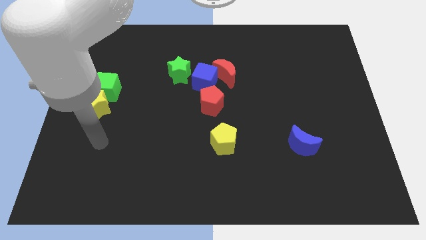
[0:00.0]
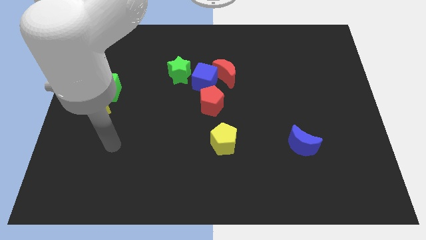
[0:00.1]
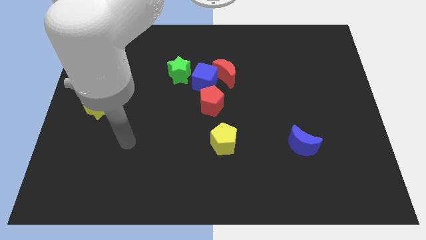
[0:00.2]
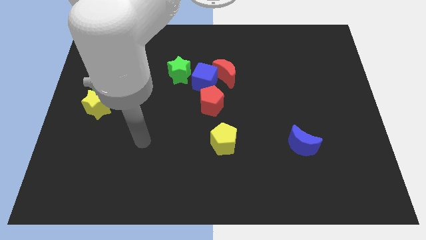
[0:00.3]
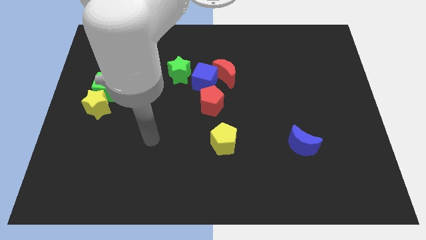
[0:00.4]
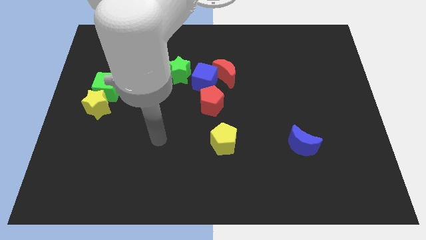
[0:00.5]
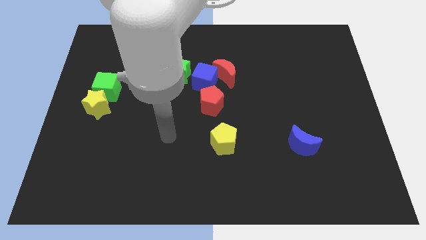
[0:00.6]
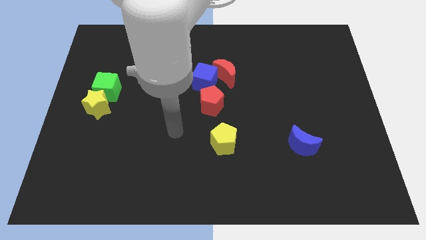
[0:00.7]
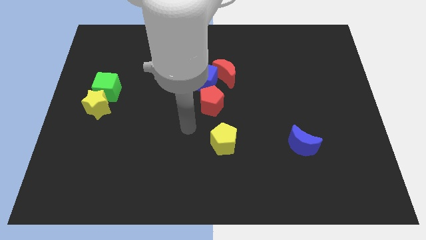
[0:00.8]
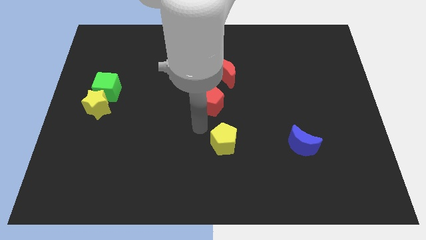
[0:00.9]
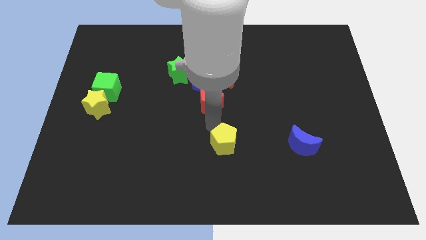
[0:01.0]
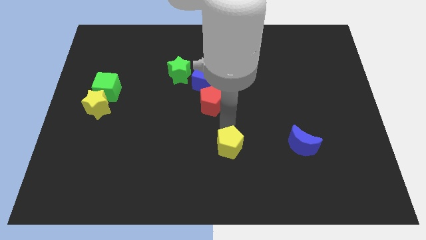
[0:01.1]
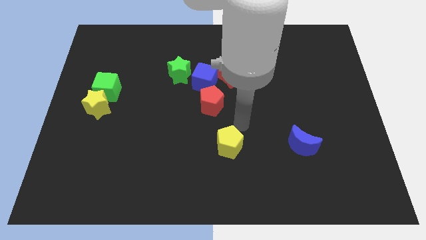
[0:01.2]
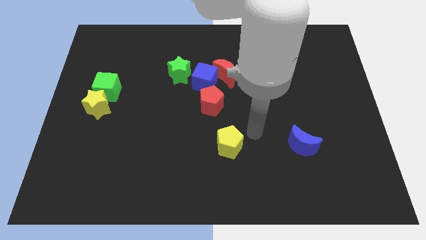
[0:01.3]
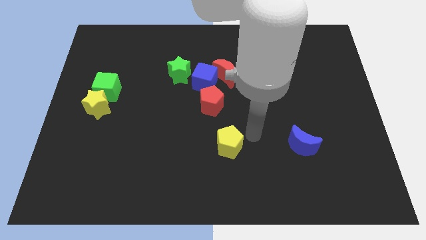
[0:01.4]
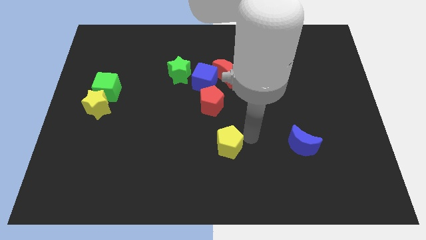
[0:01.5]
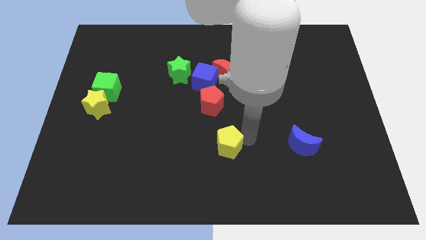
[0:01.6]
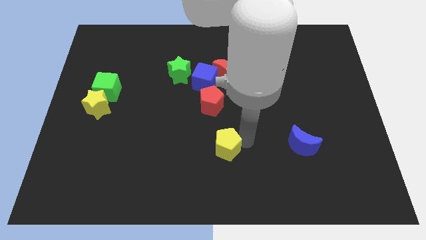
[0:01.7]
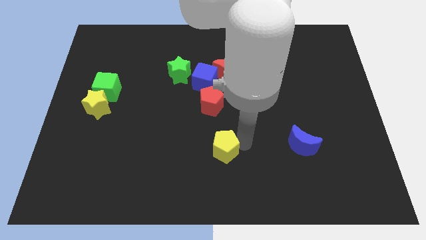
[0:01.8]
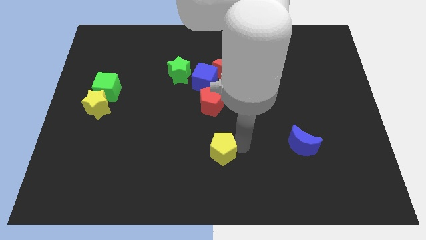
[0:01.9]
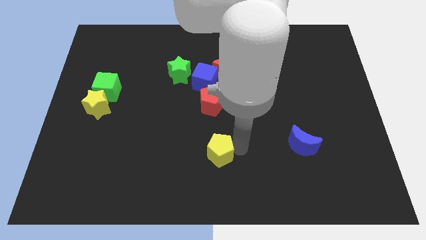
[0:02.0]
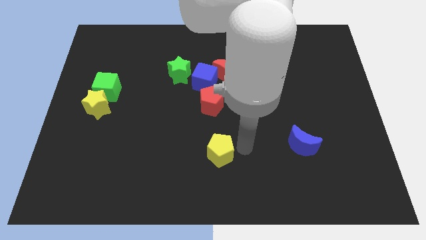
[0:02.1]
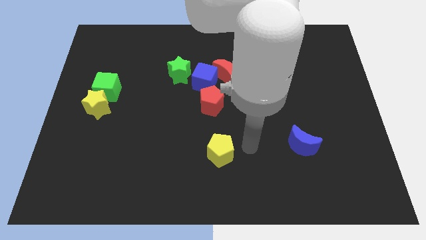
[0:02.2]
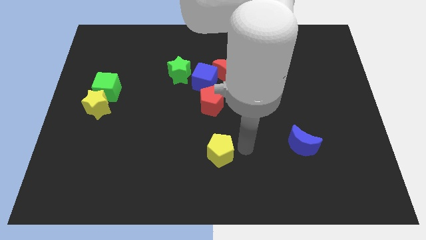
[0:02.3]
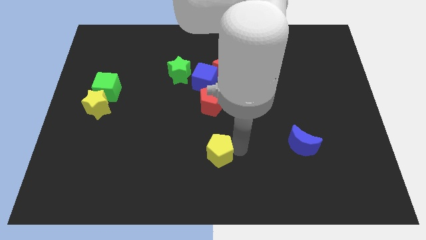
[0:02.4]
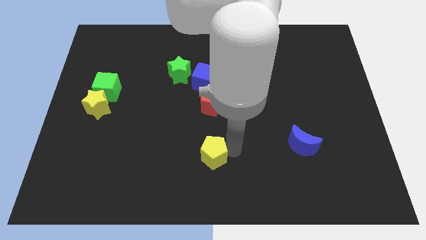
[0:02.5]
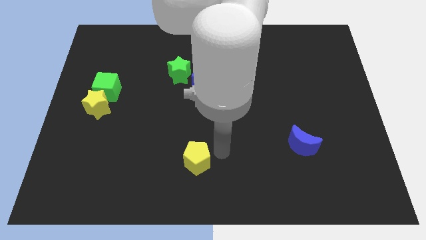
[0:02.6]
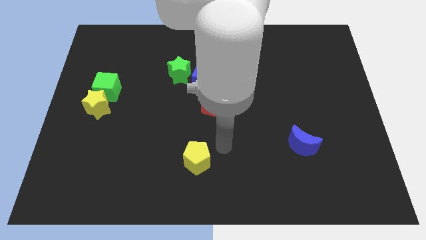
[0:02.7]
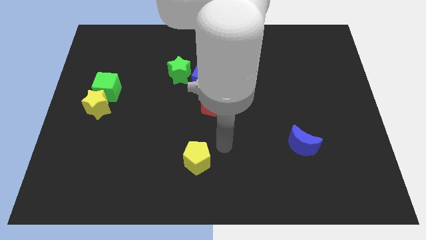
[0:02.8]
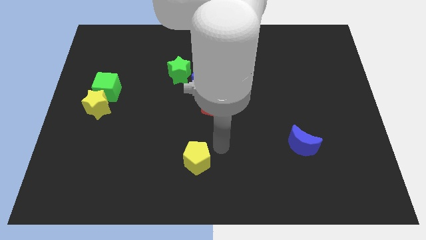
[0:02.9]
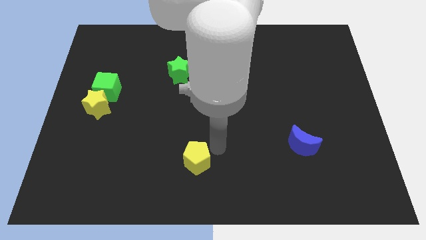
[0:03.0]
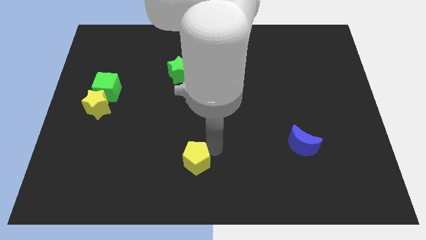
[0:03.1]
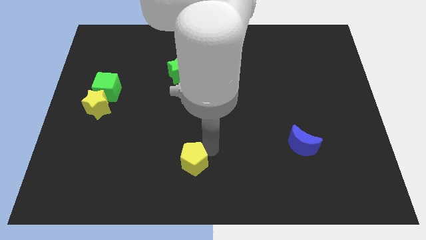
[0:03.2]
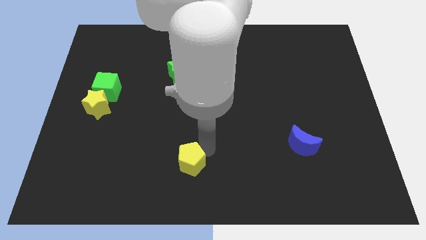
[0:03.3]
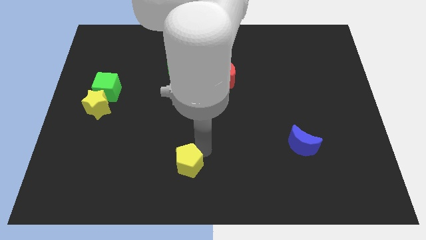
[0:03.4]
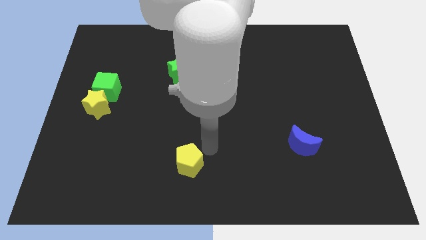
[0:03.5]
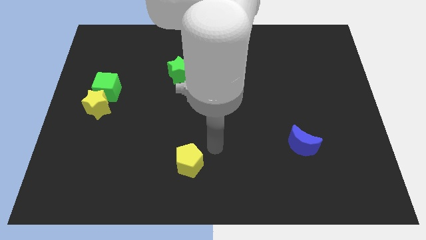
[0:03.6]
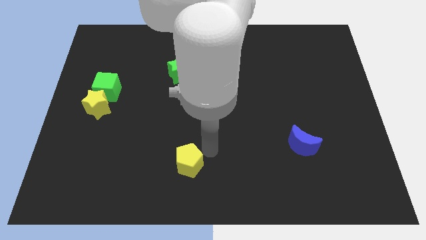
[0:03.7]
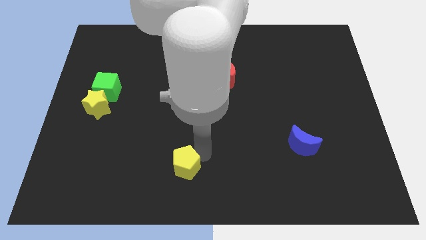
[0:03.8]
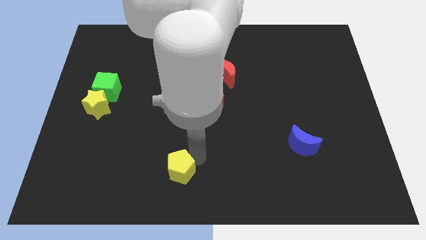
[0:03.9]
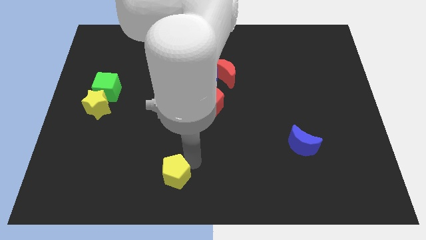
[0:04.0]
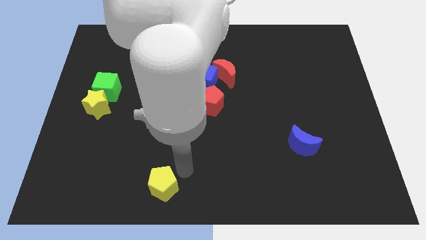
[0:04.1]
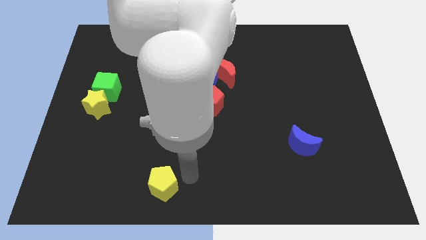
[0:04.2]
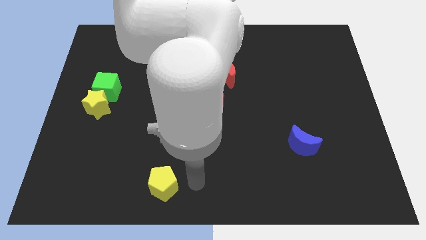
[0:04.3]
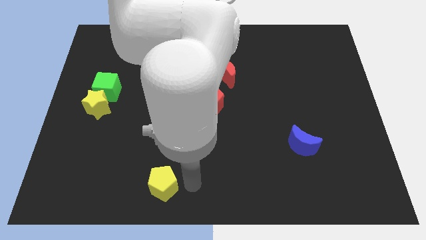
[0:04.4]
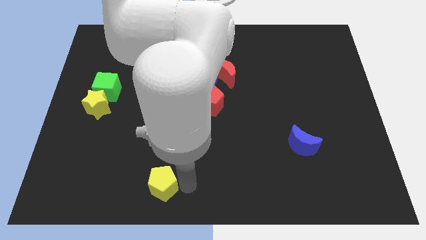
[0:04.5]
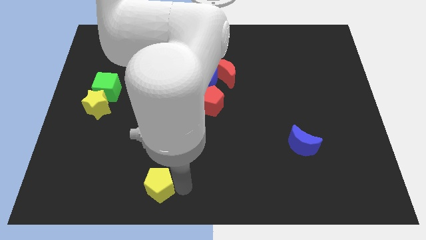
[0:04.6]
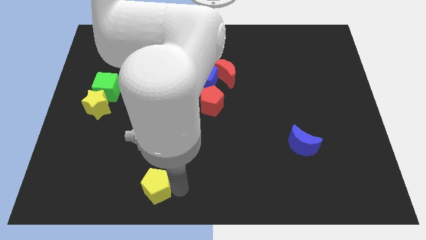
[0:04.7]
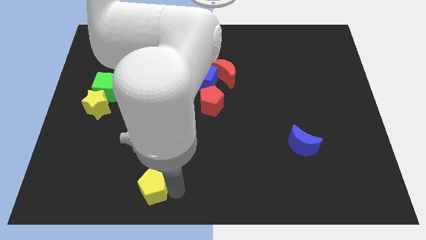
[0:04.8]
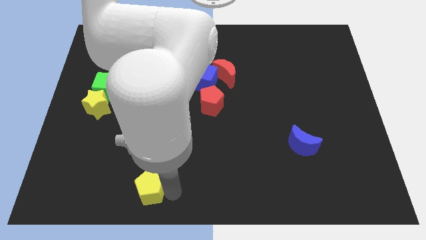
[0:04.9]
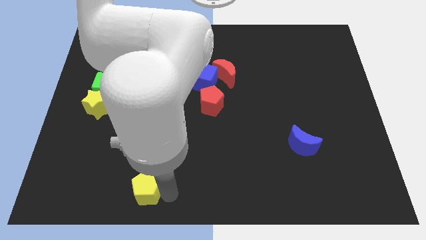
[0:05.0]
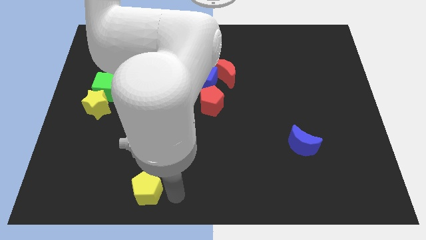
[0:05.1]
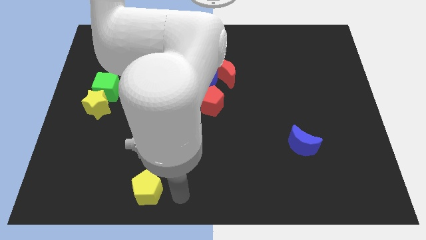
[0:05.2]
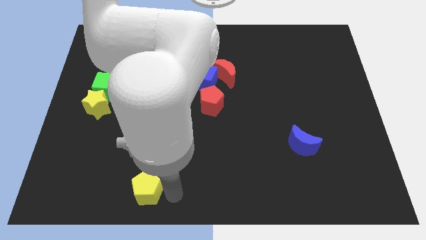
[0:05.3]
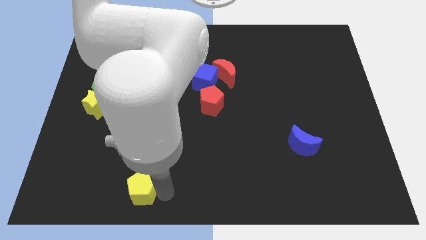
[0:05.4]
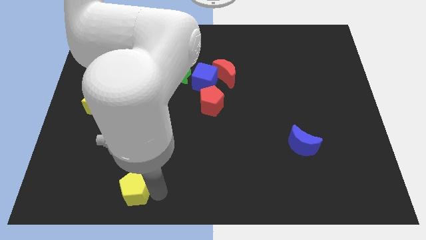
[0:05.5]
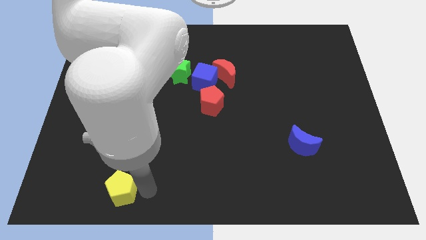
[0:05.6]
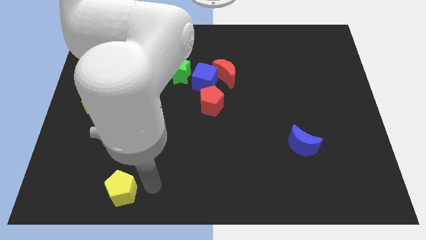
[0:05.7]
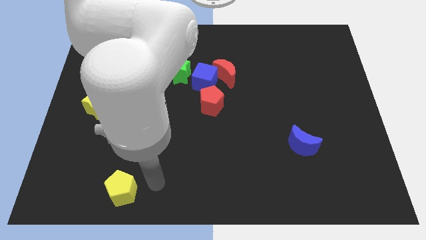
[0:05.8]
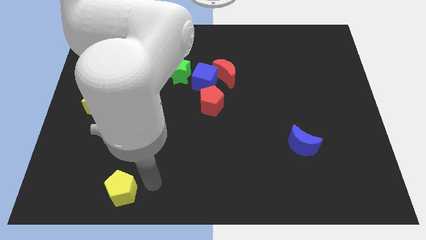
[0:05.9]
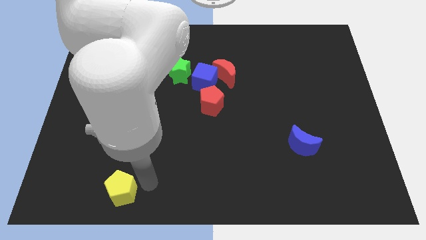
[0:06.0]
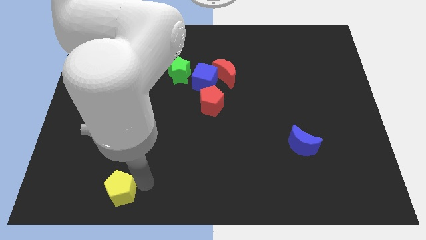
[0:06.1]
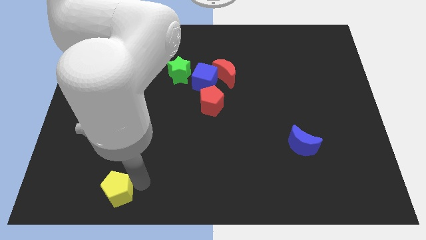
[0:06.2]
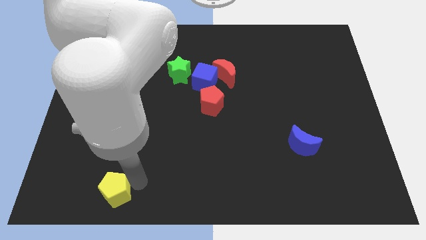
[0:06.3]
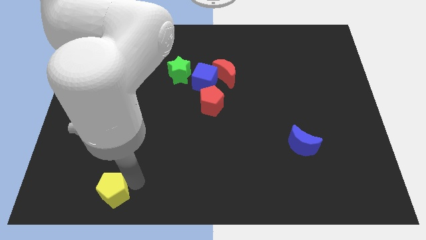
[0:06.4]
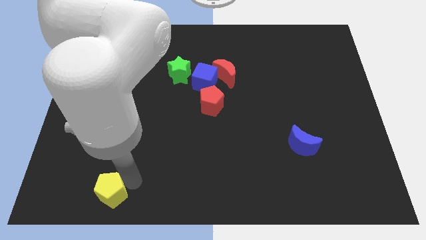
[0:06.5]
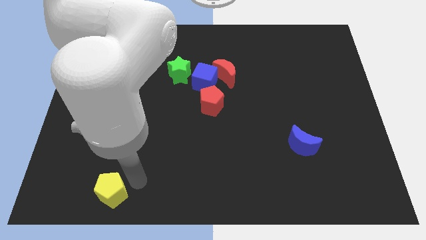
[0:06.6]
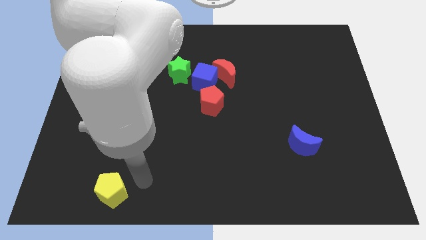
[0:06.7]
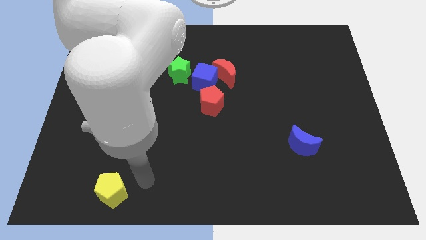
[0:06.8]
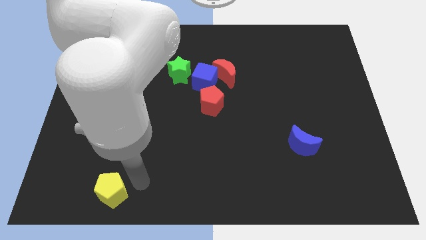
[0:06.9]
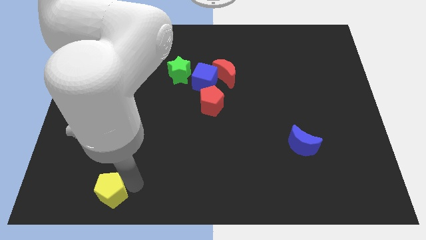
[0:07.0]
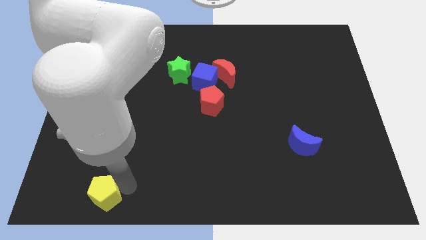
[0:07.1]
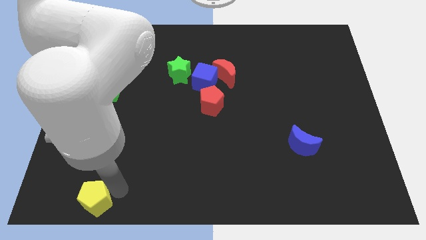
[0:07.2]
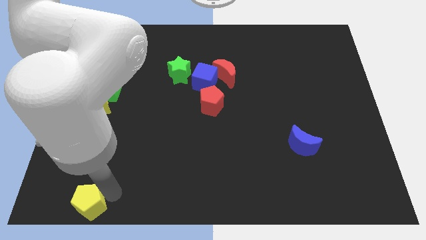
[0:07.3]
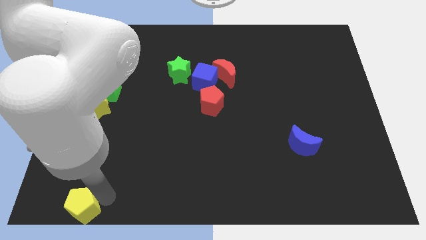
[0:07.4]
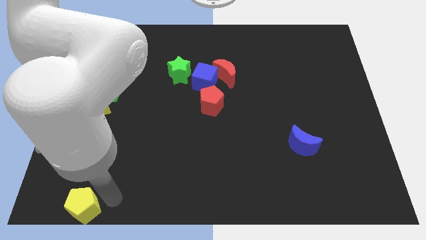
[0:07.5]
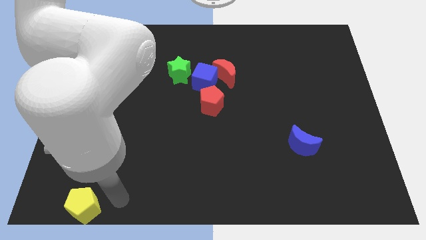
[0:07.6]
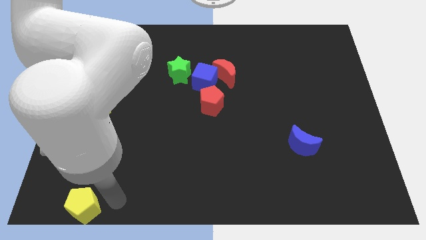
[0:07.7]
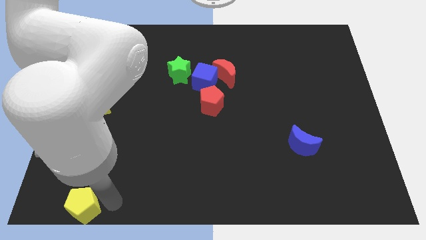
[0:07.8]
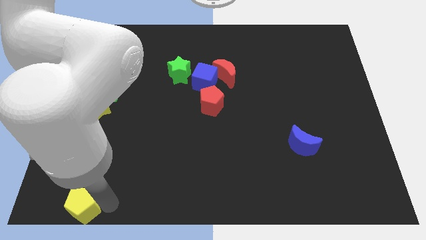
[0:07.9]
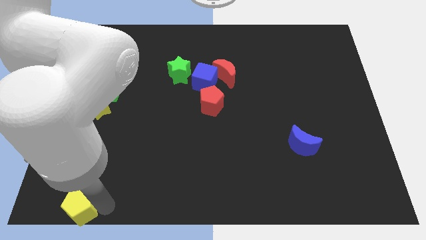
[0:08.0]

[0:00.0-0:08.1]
move the yellow pentagon to the bottom left corner
